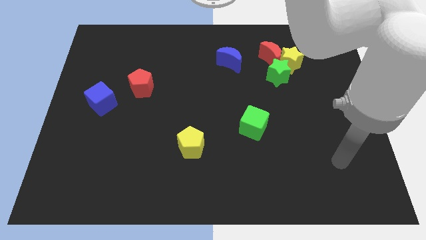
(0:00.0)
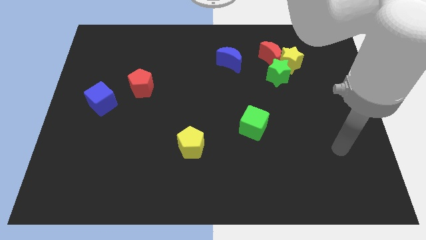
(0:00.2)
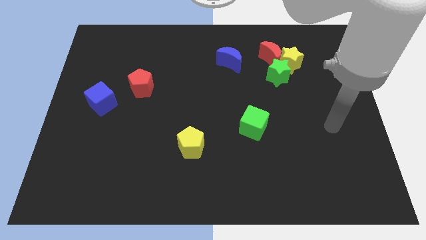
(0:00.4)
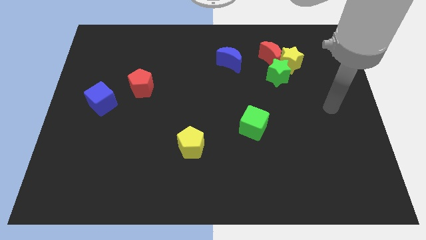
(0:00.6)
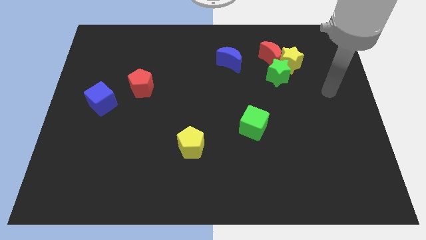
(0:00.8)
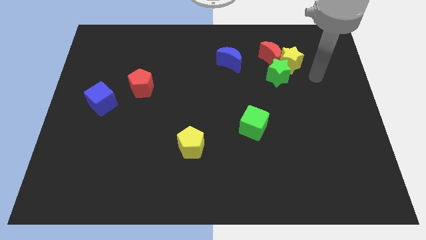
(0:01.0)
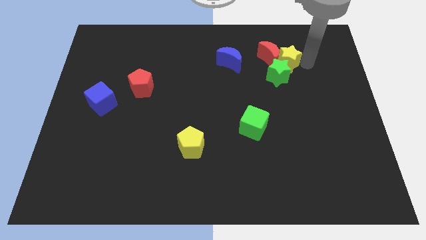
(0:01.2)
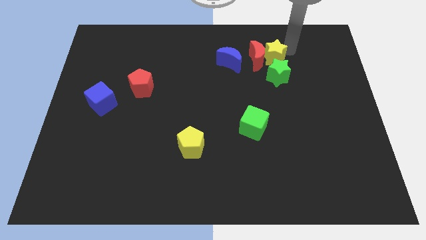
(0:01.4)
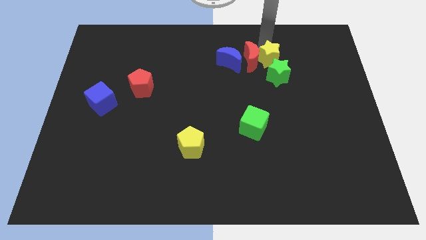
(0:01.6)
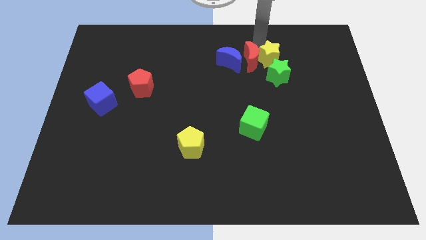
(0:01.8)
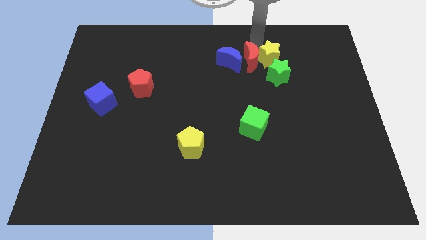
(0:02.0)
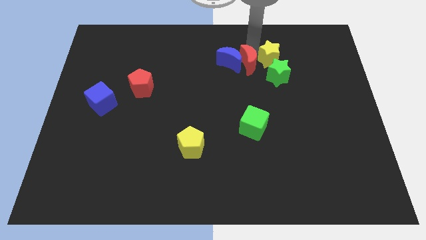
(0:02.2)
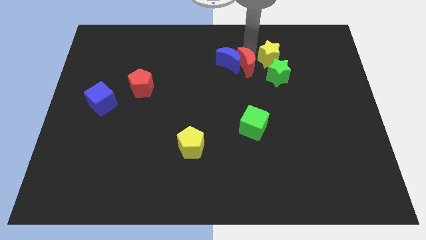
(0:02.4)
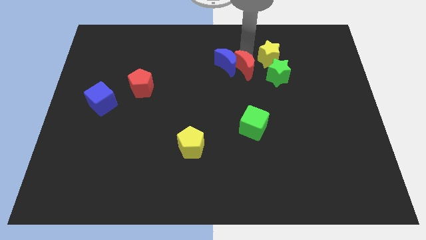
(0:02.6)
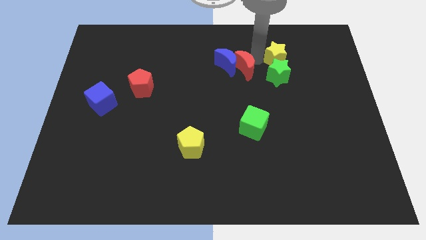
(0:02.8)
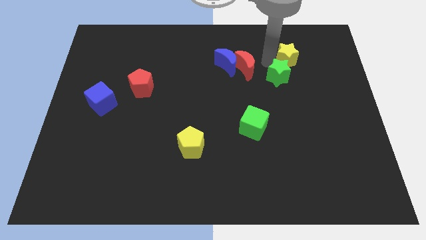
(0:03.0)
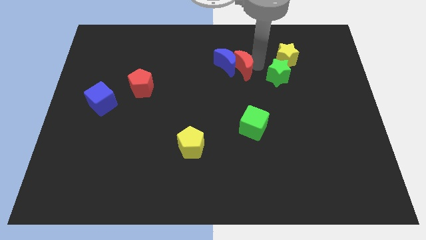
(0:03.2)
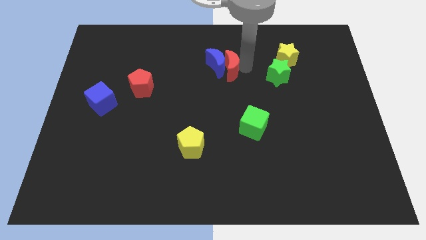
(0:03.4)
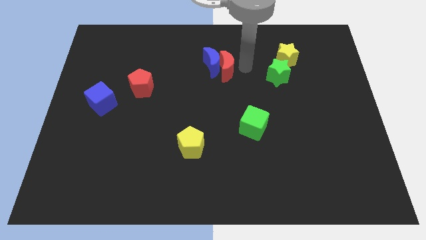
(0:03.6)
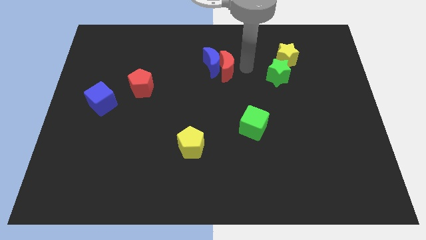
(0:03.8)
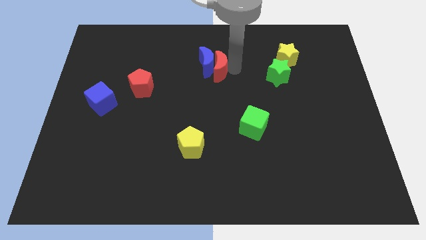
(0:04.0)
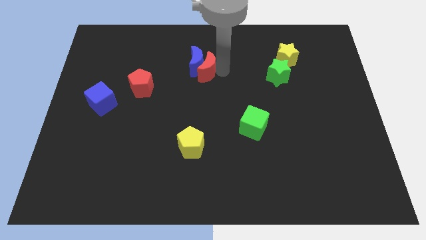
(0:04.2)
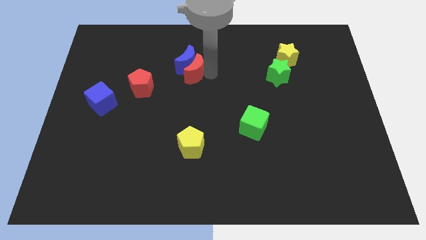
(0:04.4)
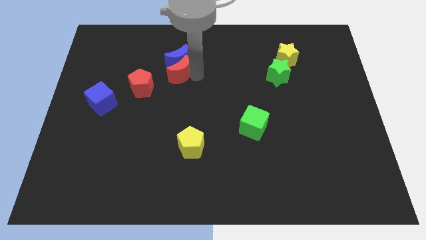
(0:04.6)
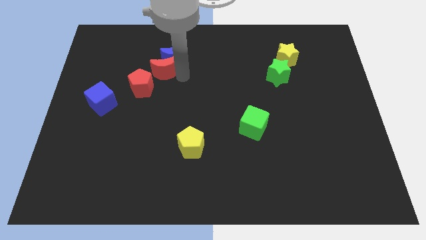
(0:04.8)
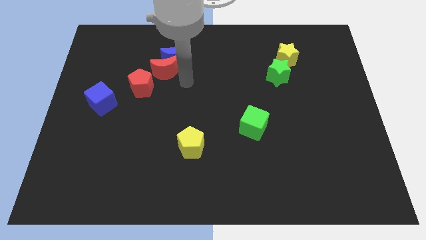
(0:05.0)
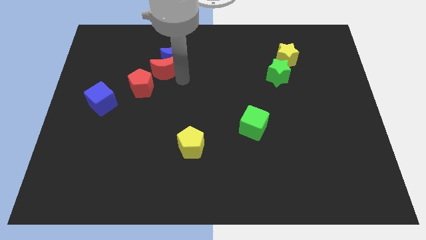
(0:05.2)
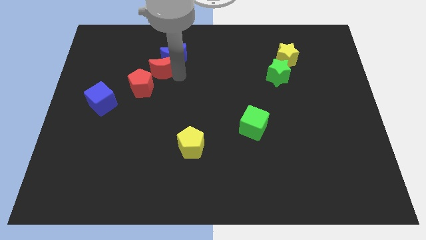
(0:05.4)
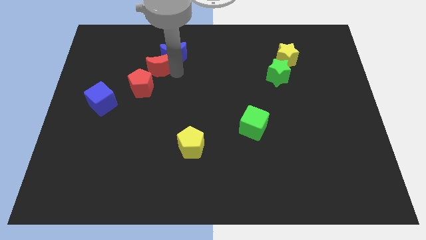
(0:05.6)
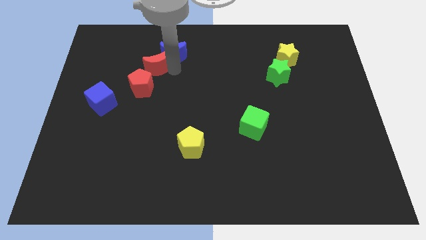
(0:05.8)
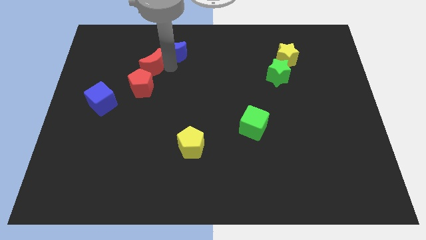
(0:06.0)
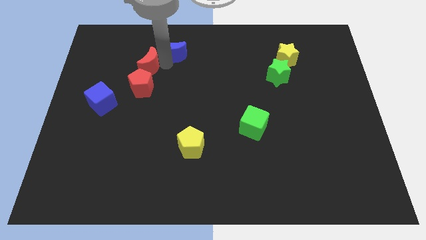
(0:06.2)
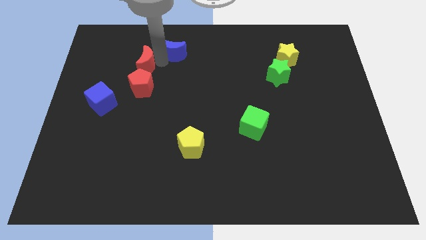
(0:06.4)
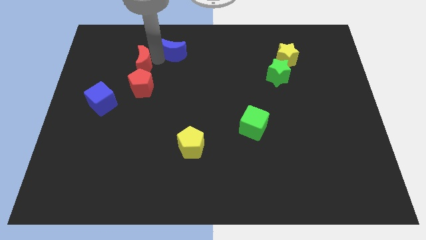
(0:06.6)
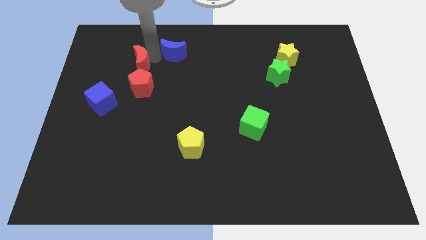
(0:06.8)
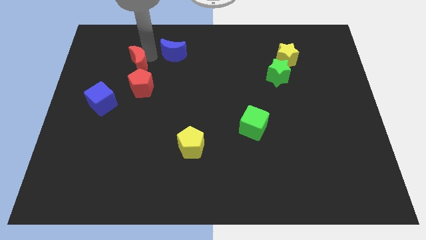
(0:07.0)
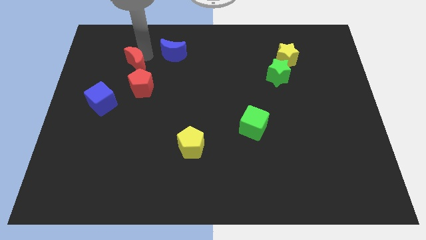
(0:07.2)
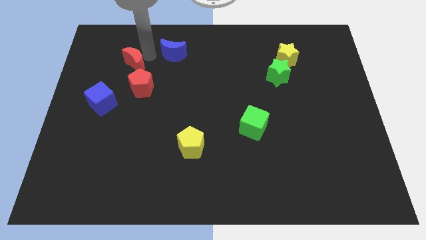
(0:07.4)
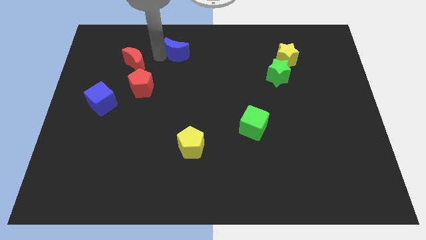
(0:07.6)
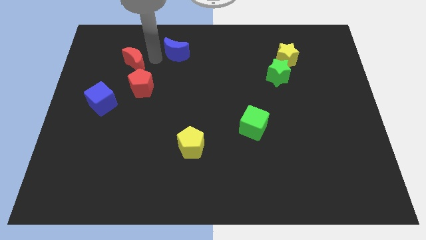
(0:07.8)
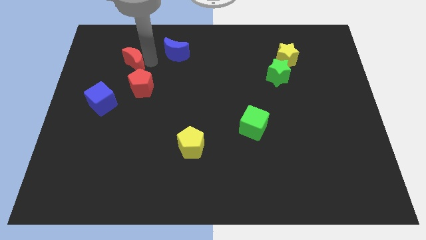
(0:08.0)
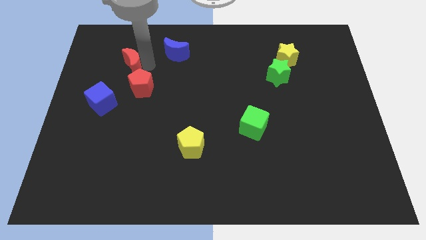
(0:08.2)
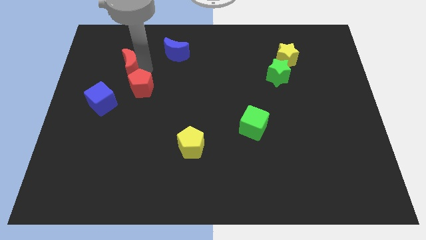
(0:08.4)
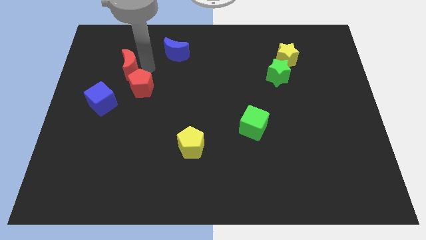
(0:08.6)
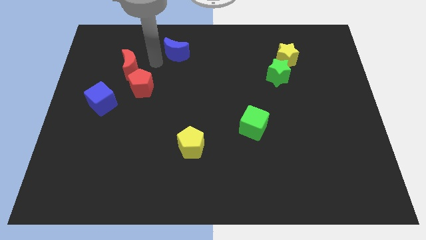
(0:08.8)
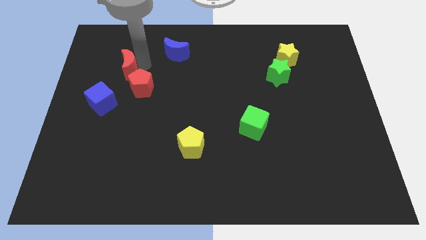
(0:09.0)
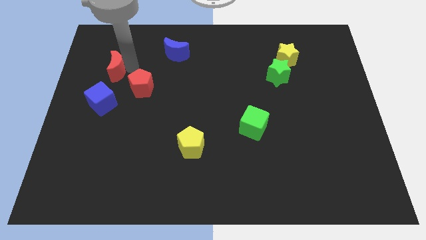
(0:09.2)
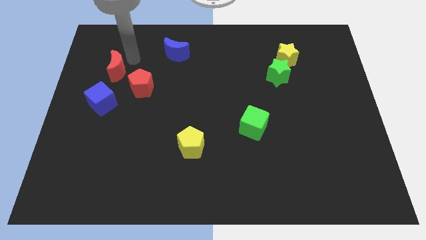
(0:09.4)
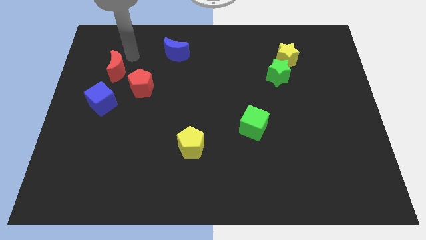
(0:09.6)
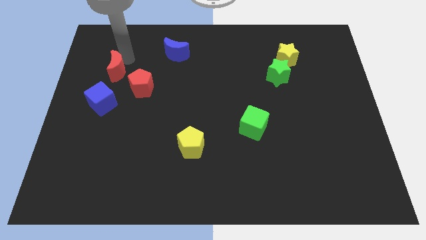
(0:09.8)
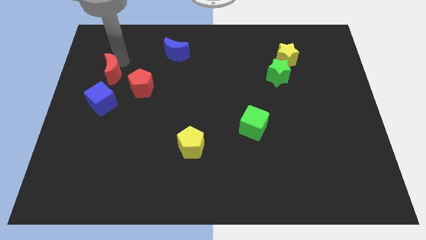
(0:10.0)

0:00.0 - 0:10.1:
put the red moon to the left of the red pentagon

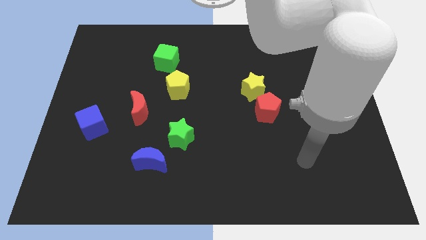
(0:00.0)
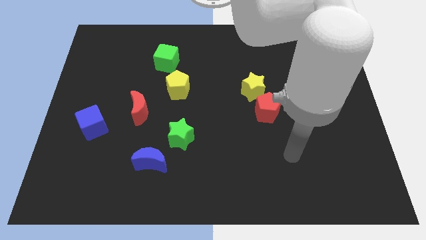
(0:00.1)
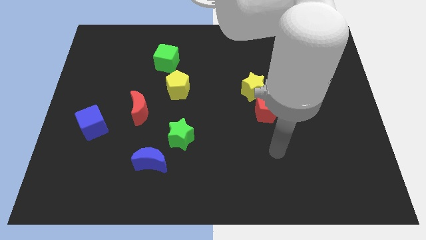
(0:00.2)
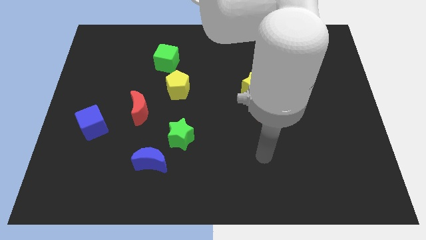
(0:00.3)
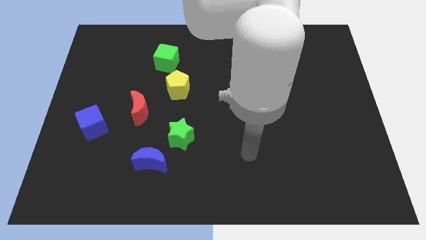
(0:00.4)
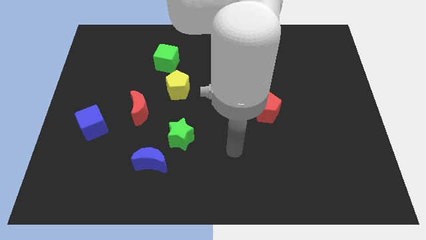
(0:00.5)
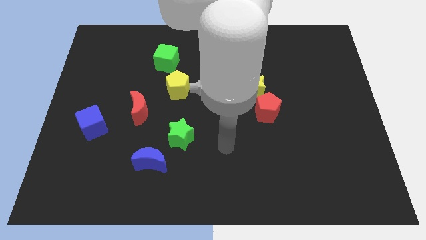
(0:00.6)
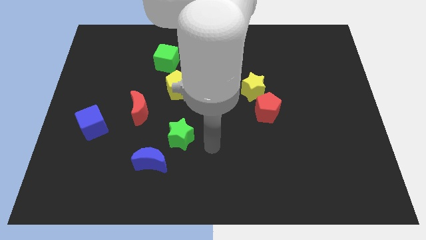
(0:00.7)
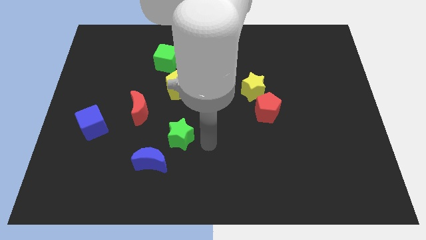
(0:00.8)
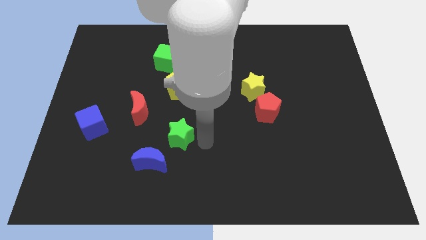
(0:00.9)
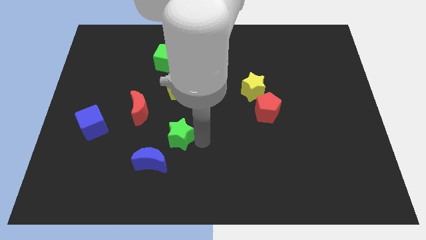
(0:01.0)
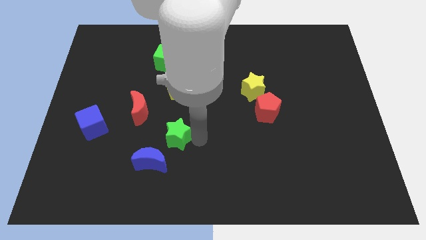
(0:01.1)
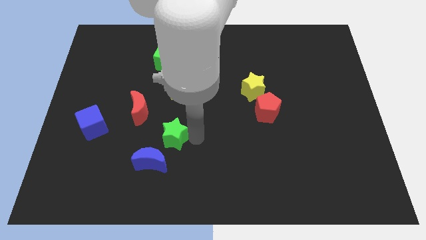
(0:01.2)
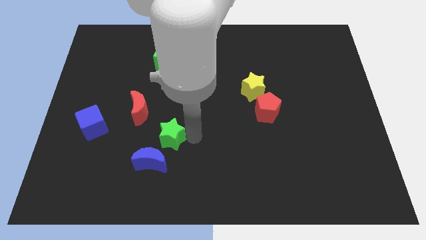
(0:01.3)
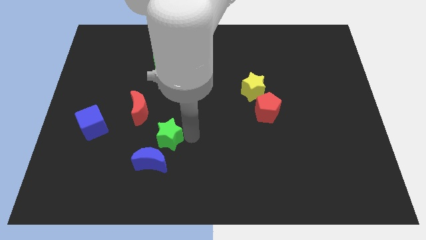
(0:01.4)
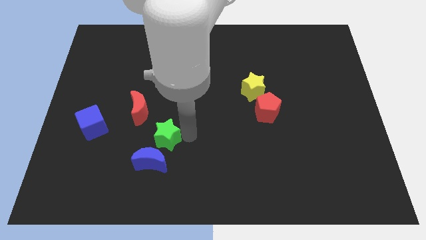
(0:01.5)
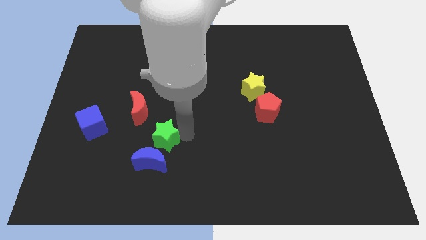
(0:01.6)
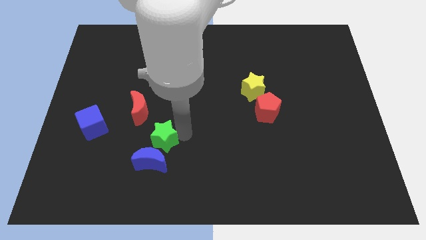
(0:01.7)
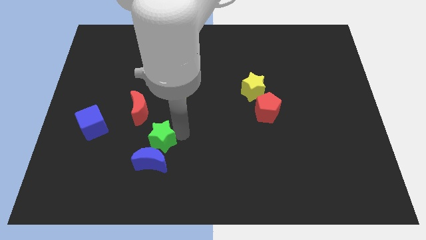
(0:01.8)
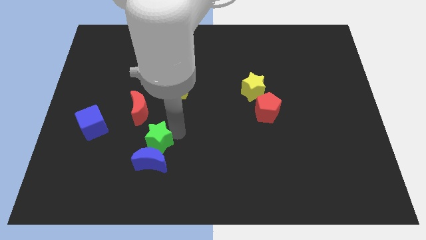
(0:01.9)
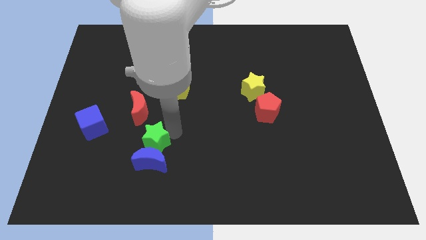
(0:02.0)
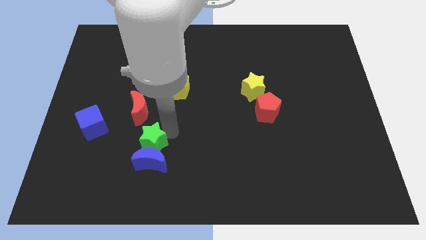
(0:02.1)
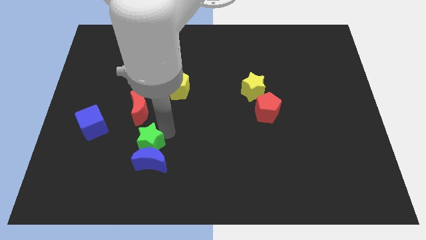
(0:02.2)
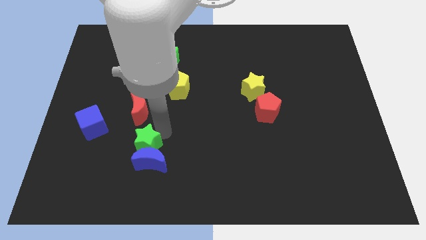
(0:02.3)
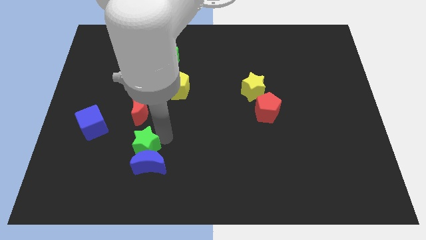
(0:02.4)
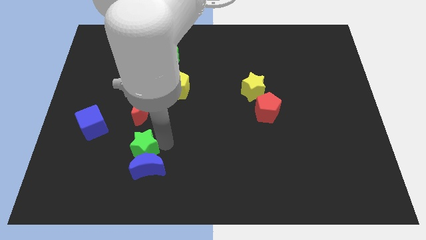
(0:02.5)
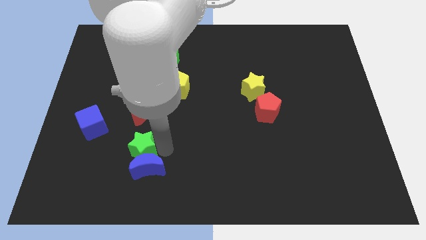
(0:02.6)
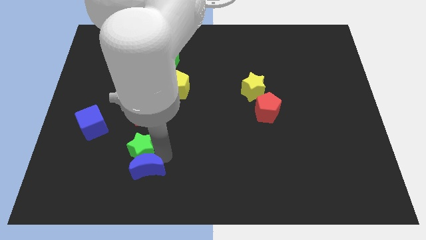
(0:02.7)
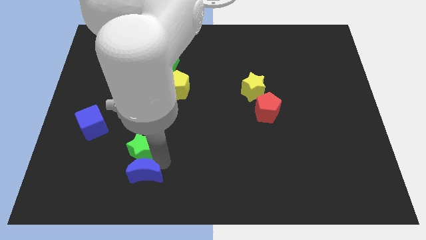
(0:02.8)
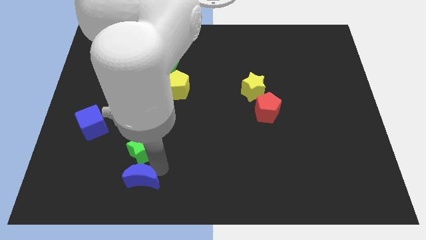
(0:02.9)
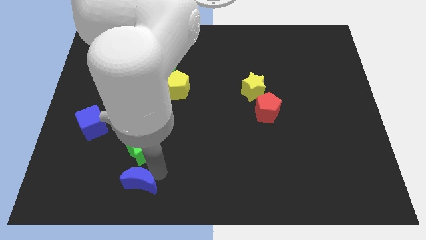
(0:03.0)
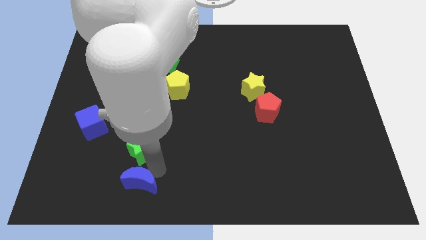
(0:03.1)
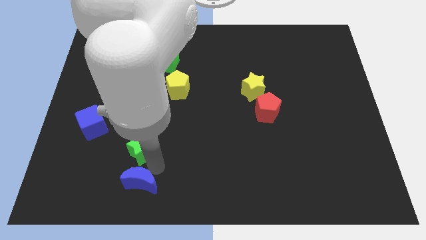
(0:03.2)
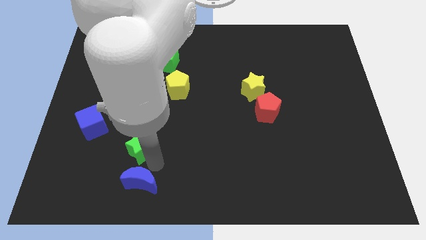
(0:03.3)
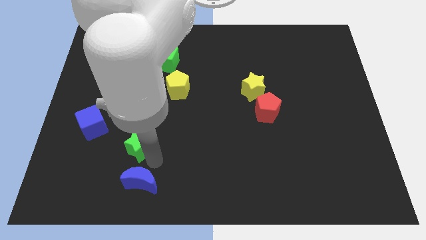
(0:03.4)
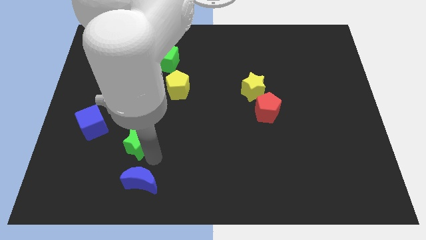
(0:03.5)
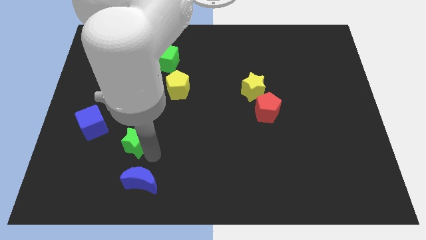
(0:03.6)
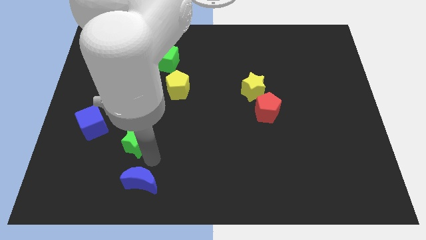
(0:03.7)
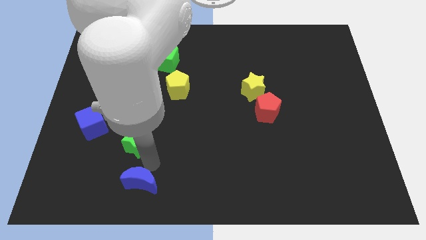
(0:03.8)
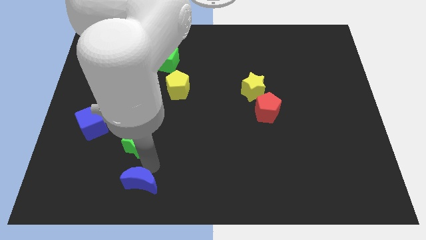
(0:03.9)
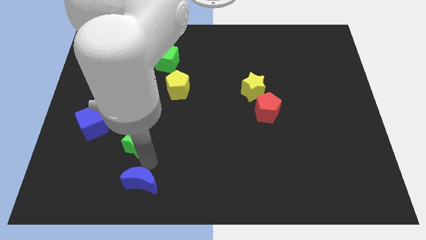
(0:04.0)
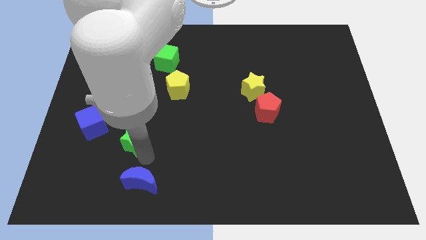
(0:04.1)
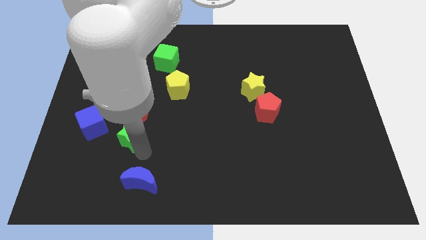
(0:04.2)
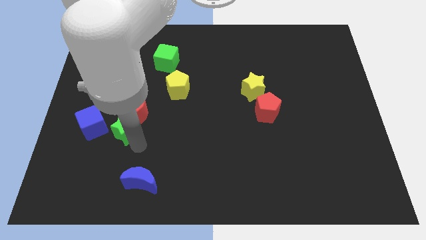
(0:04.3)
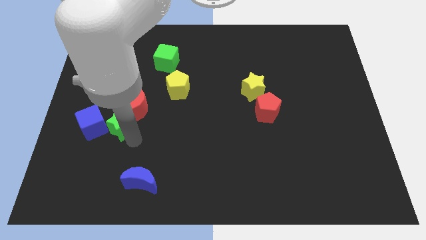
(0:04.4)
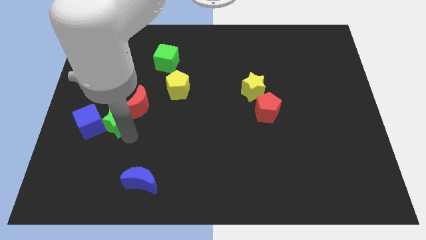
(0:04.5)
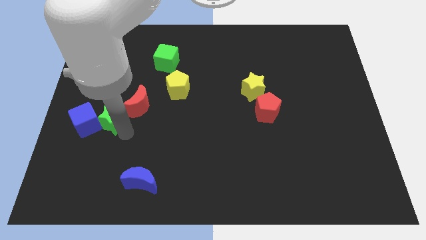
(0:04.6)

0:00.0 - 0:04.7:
put the green star to the left side of the red moon
